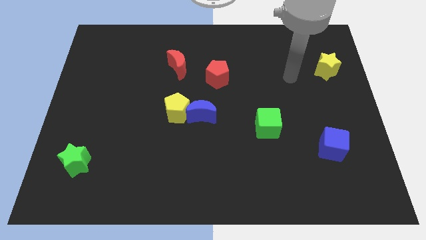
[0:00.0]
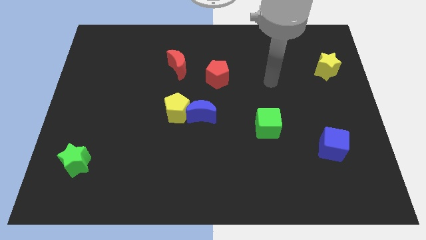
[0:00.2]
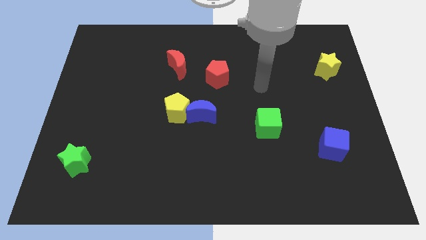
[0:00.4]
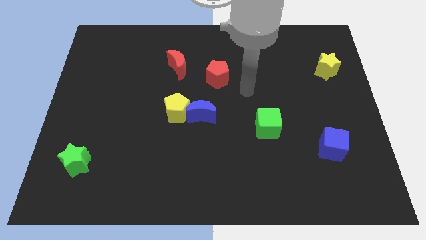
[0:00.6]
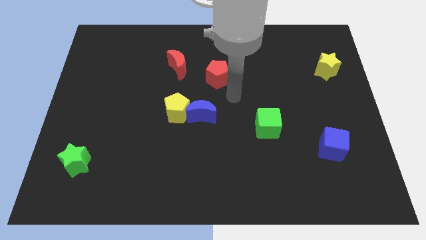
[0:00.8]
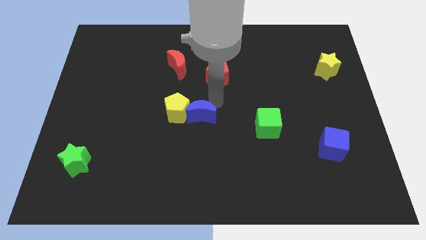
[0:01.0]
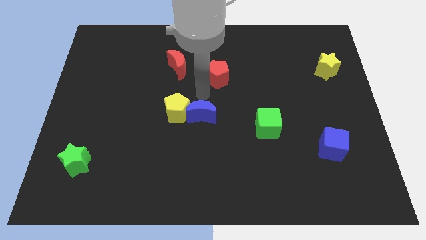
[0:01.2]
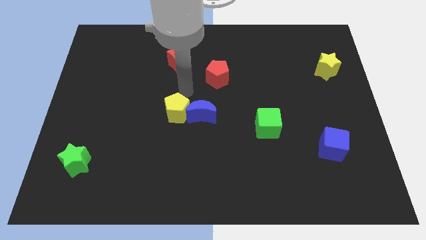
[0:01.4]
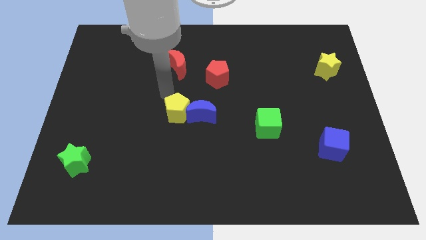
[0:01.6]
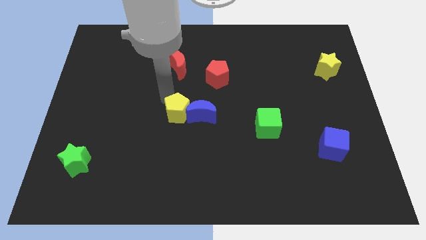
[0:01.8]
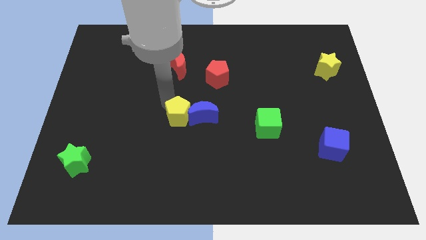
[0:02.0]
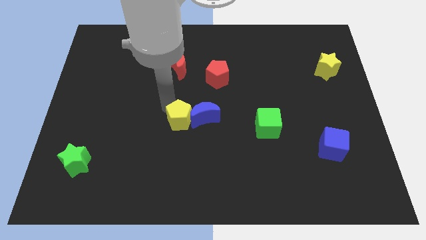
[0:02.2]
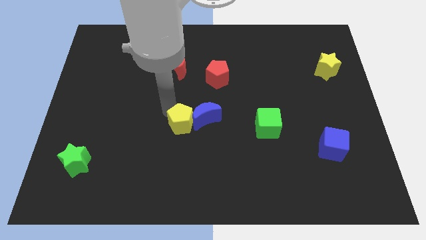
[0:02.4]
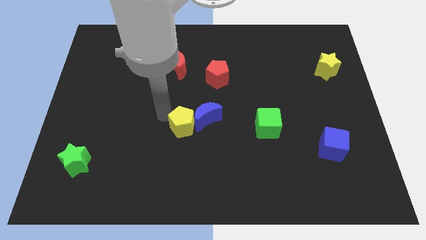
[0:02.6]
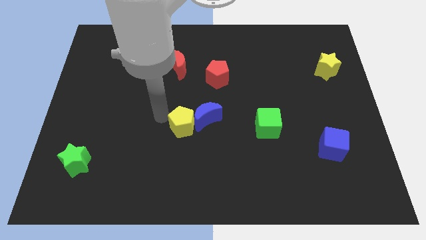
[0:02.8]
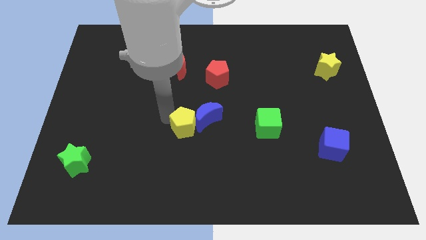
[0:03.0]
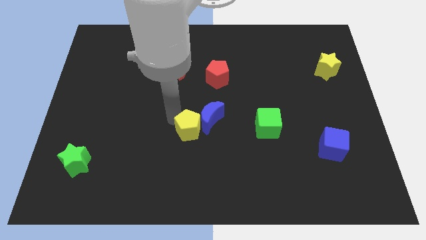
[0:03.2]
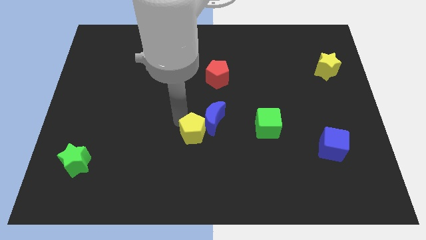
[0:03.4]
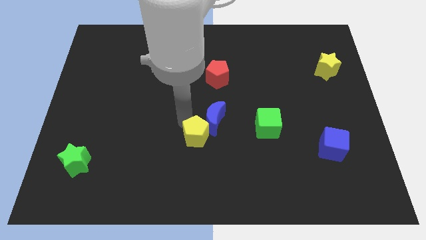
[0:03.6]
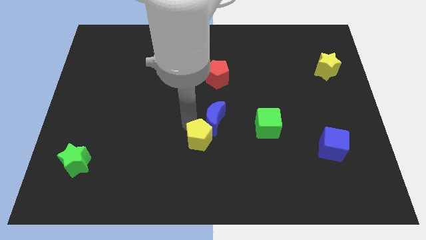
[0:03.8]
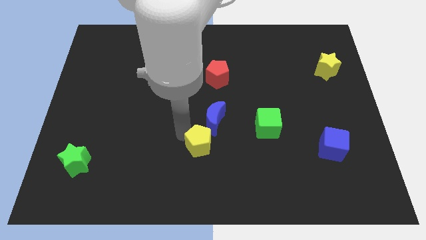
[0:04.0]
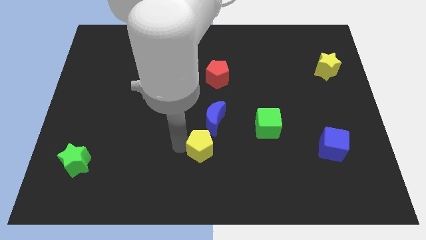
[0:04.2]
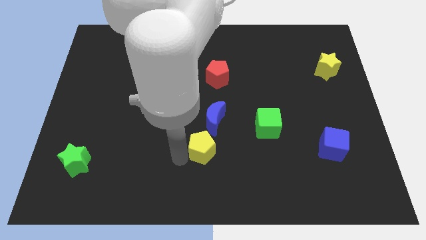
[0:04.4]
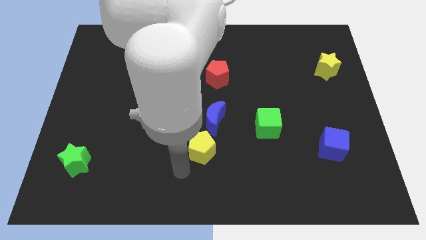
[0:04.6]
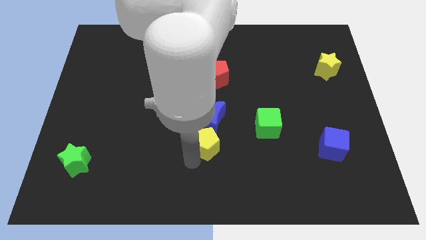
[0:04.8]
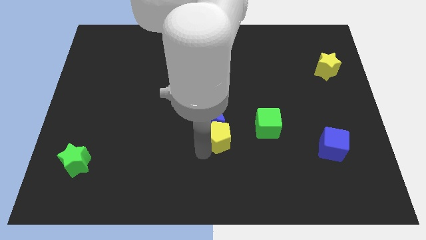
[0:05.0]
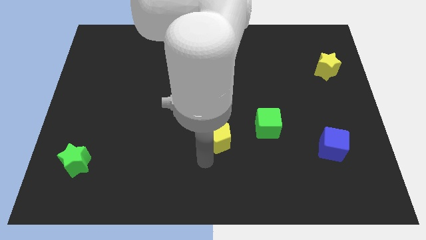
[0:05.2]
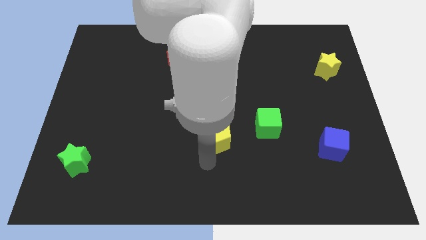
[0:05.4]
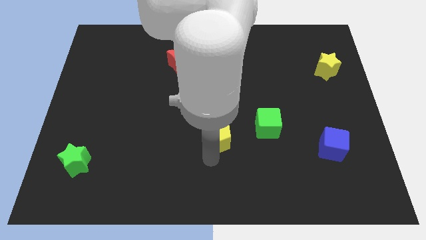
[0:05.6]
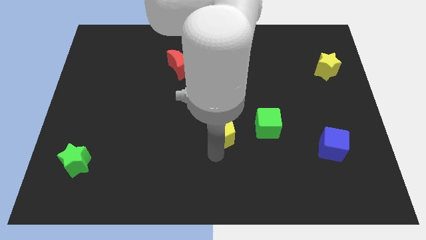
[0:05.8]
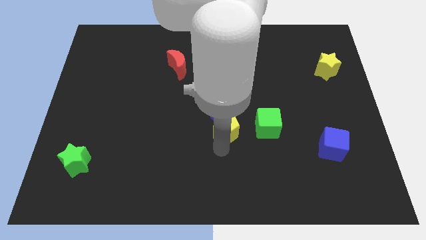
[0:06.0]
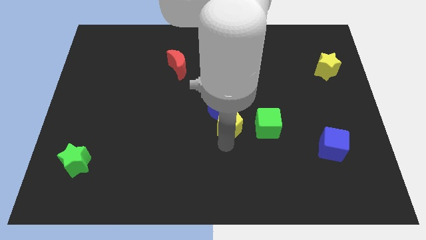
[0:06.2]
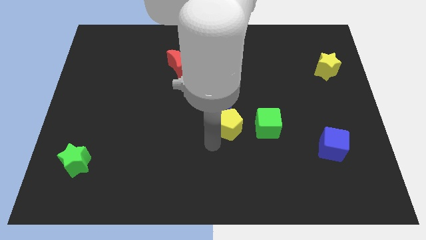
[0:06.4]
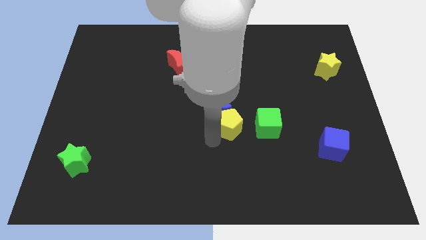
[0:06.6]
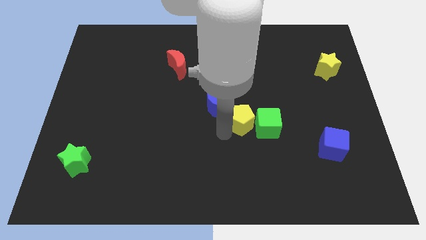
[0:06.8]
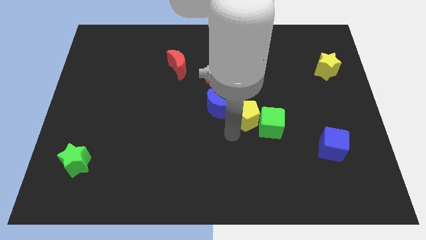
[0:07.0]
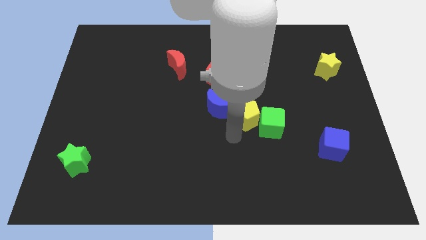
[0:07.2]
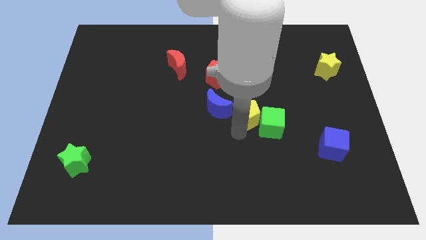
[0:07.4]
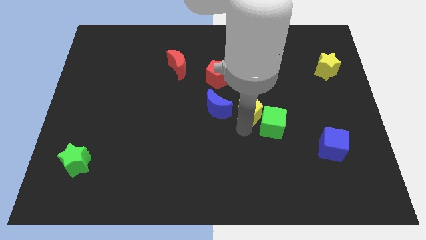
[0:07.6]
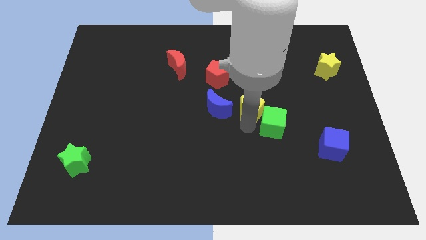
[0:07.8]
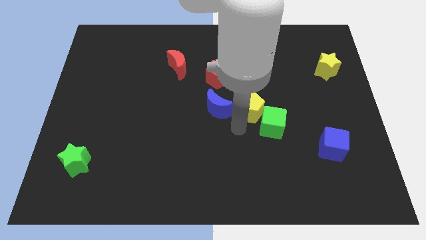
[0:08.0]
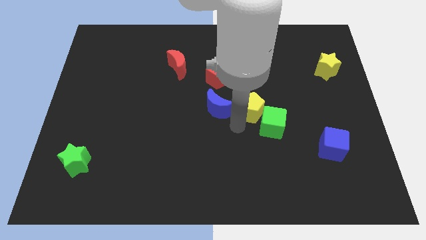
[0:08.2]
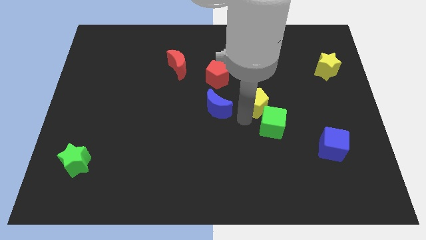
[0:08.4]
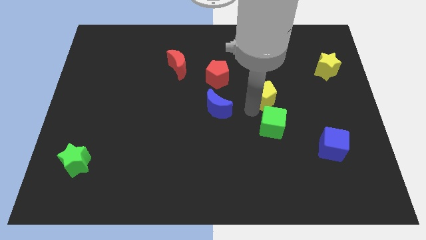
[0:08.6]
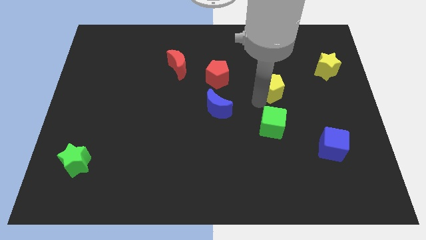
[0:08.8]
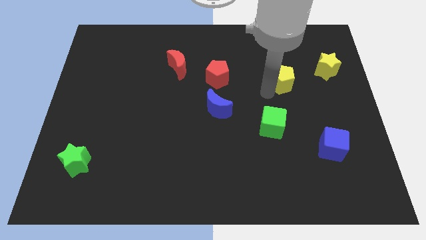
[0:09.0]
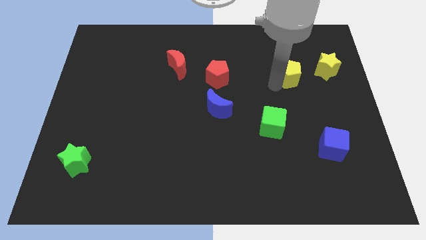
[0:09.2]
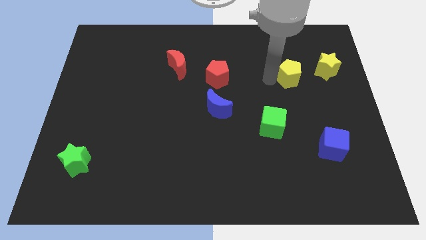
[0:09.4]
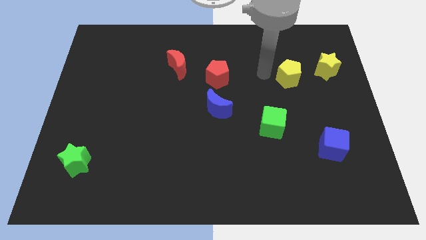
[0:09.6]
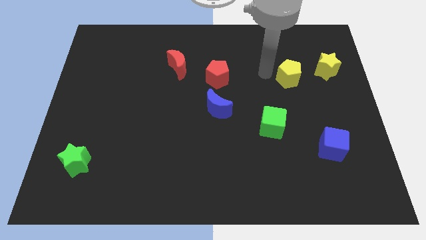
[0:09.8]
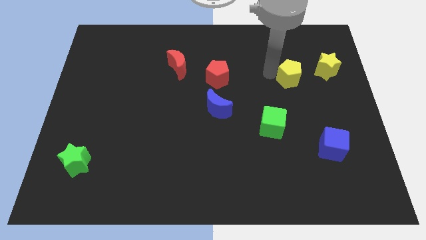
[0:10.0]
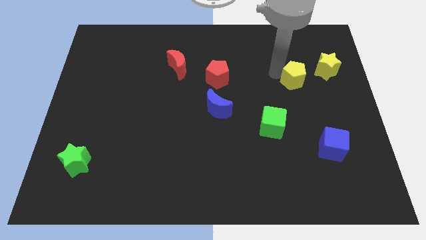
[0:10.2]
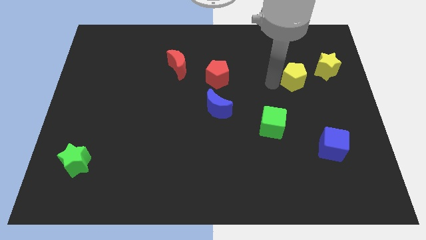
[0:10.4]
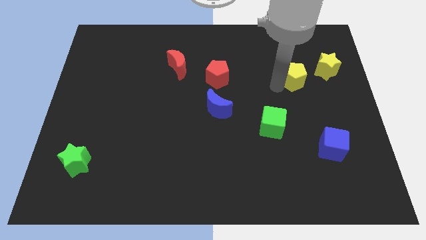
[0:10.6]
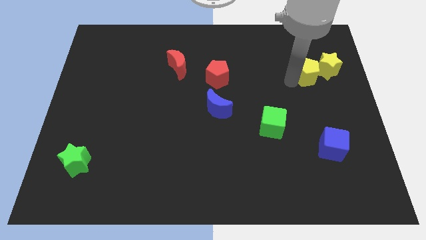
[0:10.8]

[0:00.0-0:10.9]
move the yellow pentagon close to the yellow star

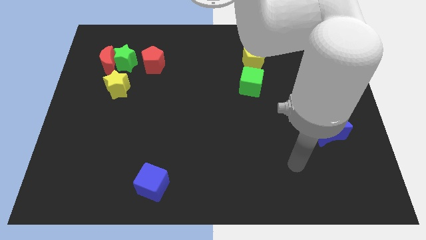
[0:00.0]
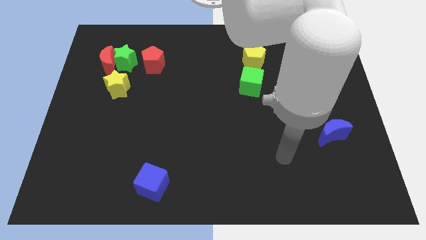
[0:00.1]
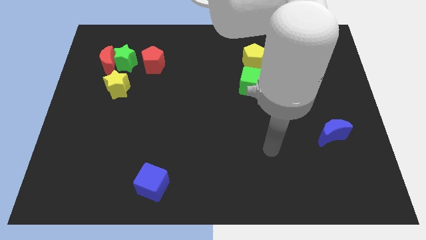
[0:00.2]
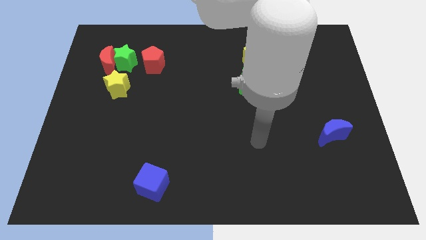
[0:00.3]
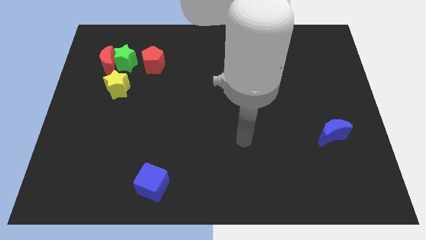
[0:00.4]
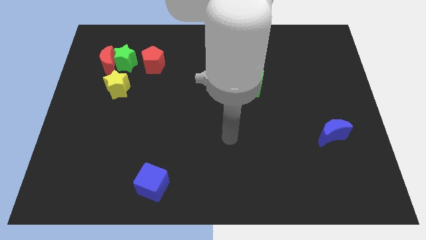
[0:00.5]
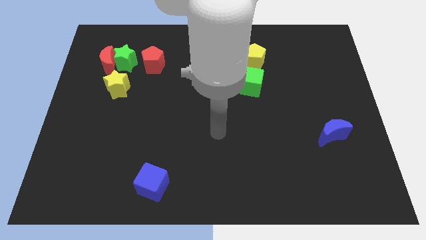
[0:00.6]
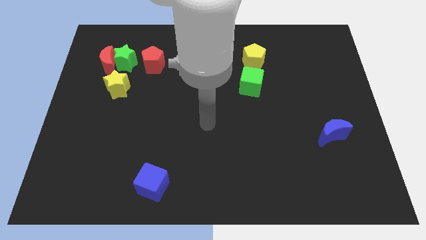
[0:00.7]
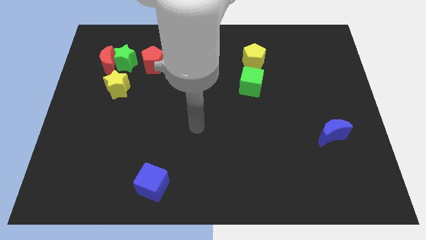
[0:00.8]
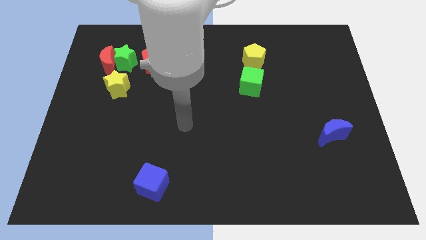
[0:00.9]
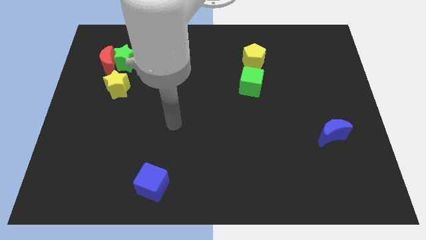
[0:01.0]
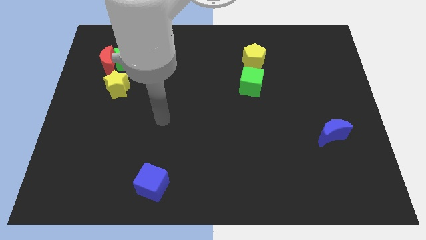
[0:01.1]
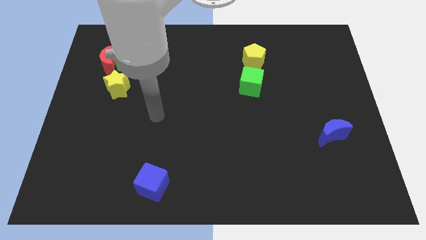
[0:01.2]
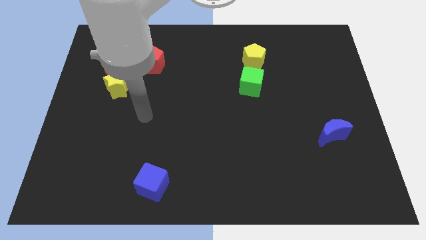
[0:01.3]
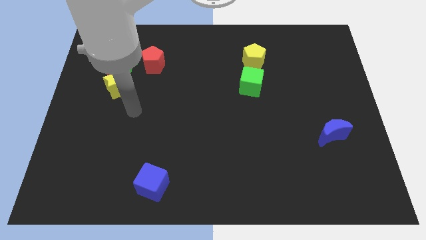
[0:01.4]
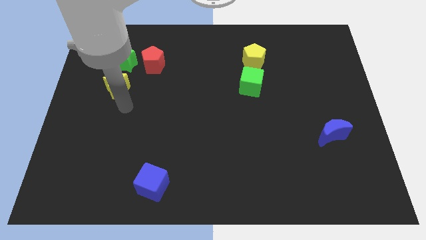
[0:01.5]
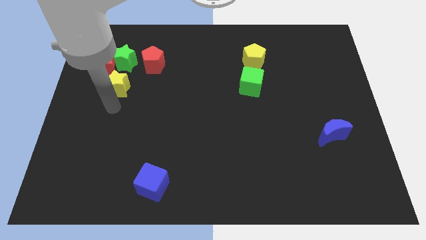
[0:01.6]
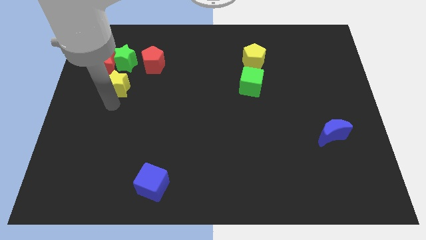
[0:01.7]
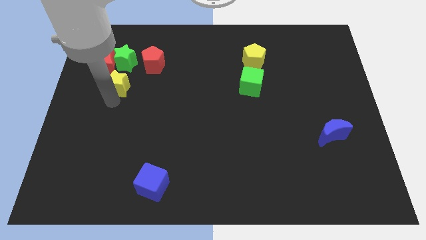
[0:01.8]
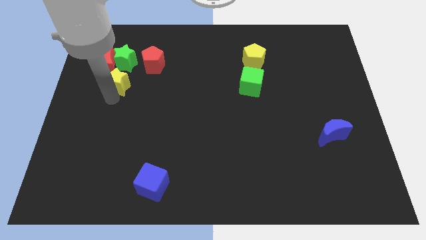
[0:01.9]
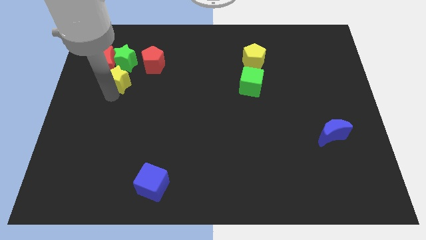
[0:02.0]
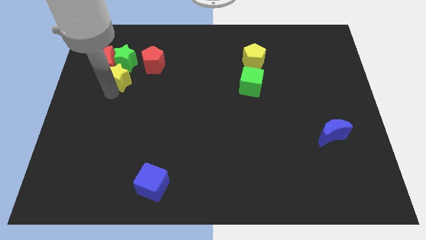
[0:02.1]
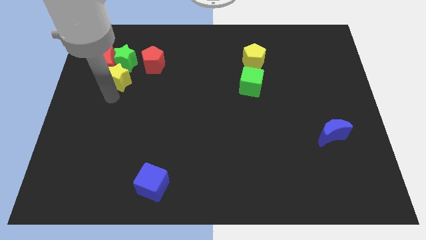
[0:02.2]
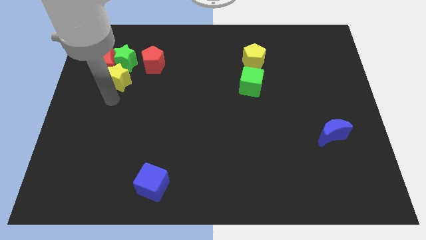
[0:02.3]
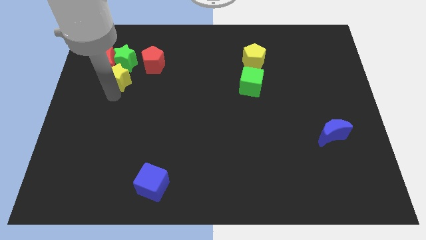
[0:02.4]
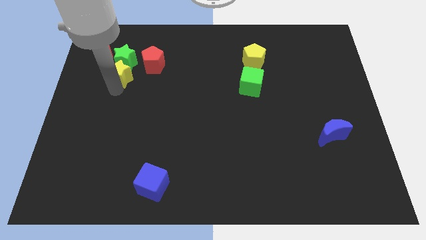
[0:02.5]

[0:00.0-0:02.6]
move the yellow star close to the green star
